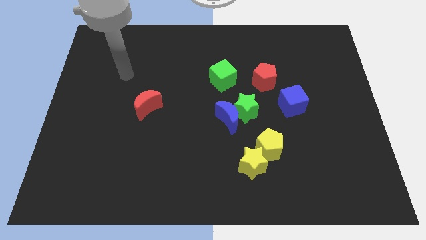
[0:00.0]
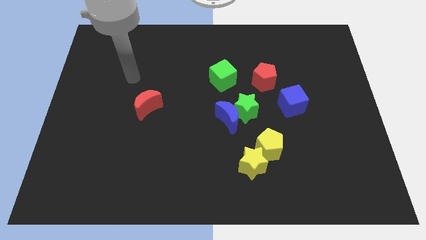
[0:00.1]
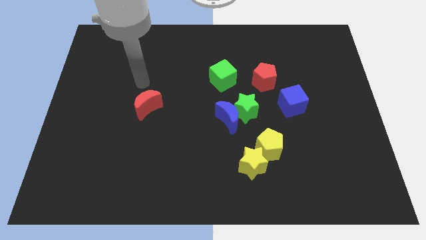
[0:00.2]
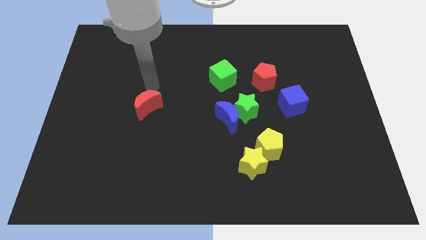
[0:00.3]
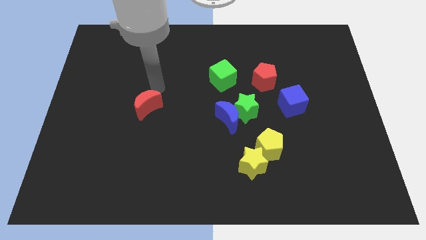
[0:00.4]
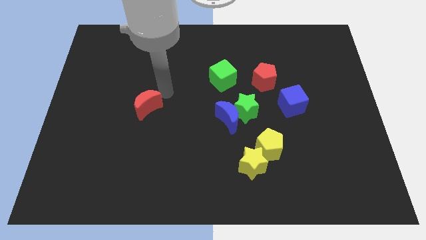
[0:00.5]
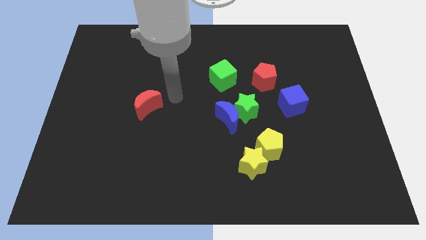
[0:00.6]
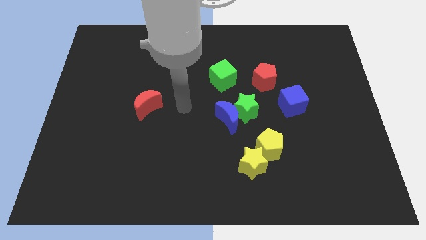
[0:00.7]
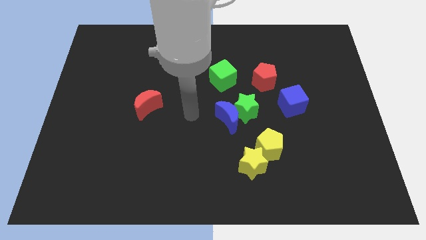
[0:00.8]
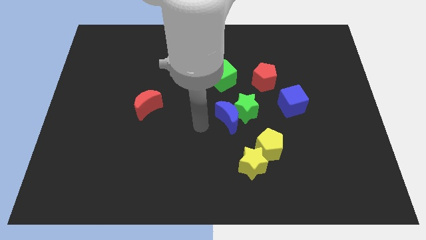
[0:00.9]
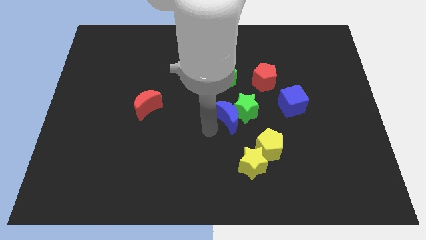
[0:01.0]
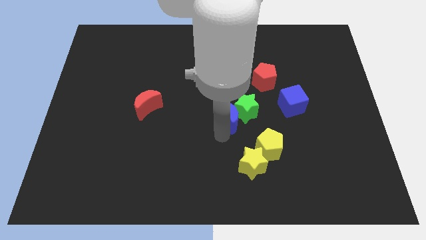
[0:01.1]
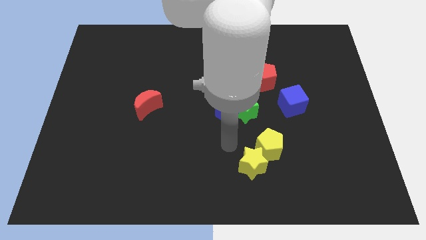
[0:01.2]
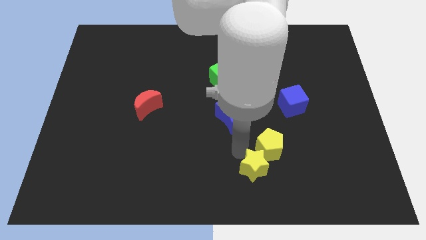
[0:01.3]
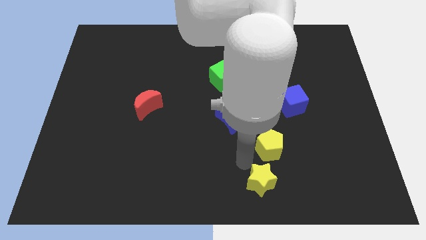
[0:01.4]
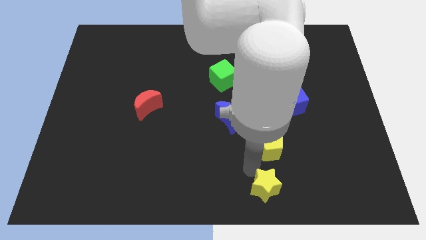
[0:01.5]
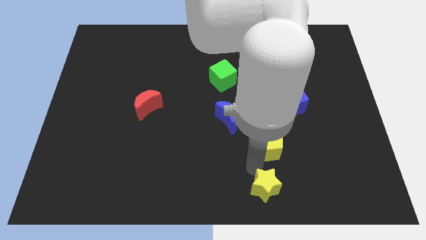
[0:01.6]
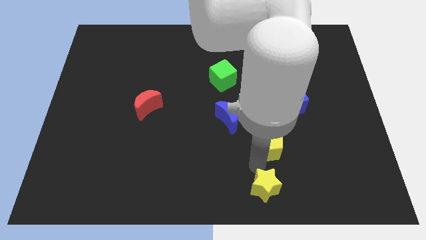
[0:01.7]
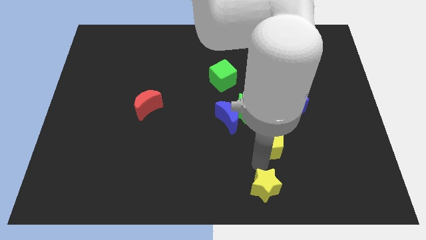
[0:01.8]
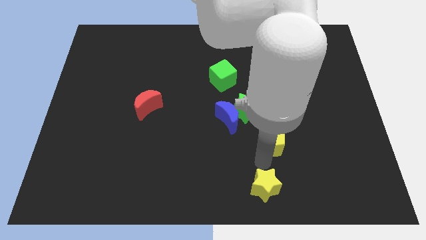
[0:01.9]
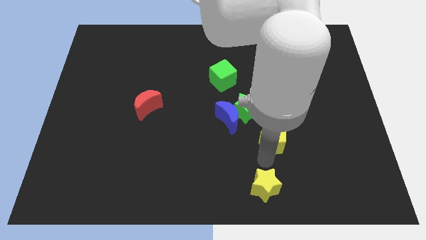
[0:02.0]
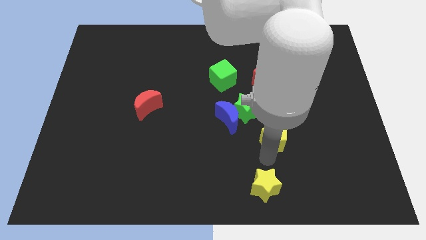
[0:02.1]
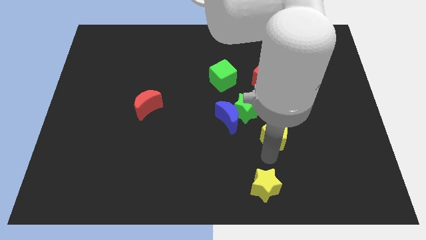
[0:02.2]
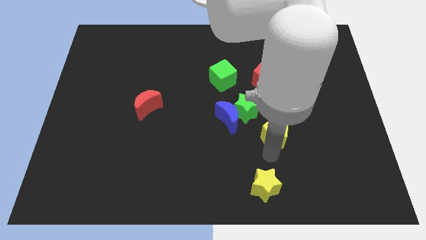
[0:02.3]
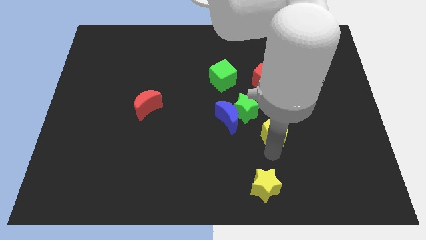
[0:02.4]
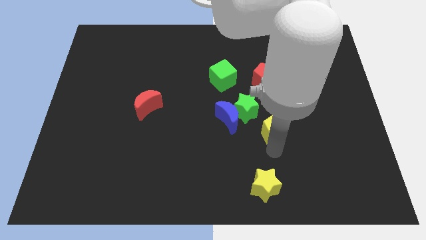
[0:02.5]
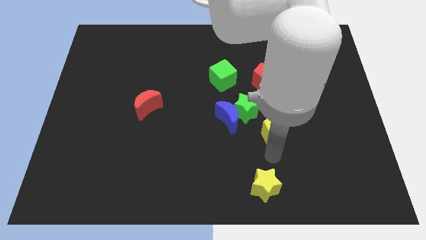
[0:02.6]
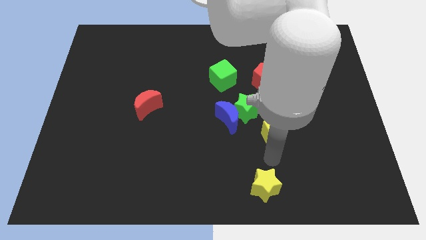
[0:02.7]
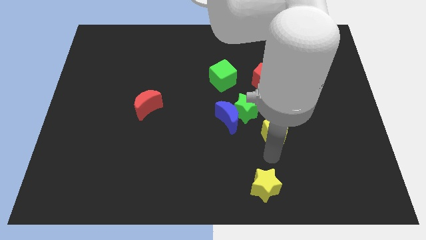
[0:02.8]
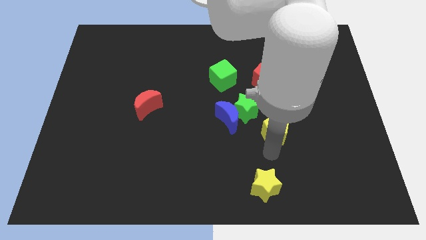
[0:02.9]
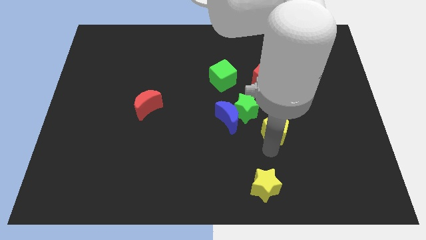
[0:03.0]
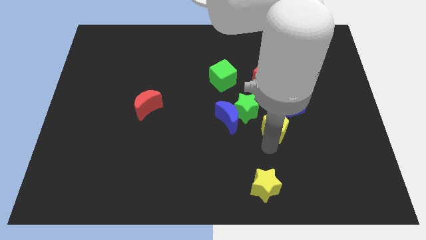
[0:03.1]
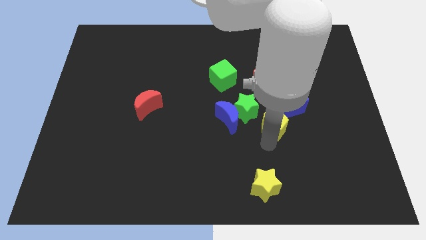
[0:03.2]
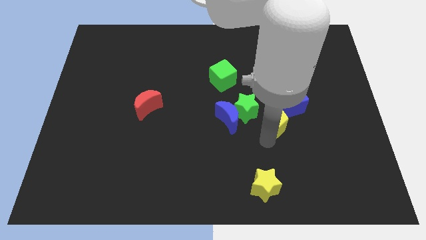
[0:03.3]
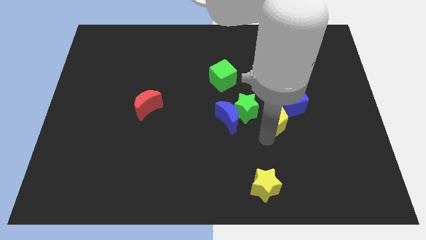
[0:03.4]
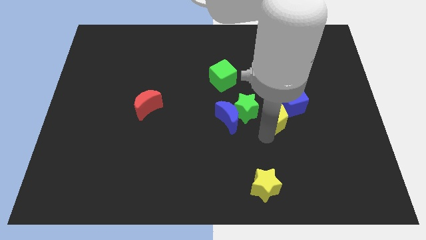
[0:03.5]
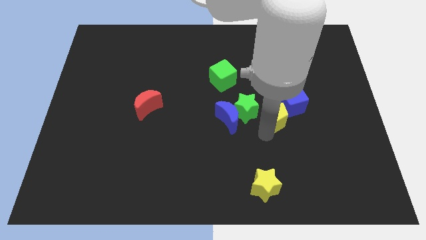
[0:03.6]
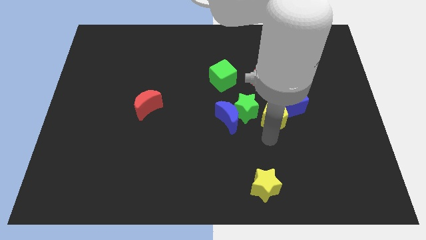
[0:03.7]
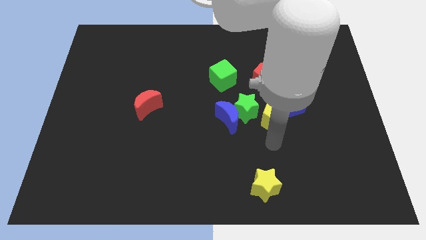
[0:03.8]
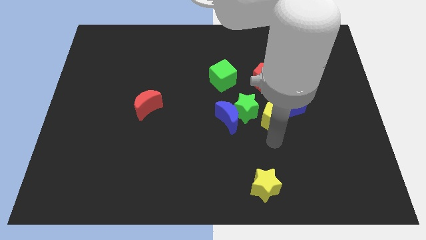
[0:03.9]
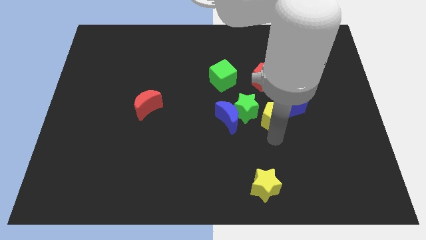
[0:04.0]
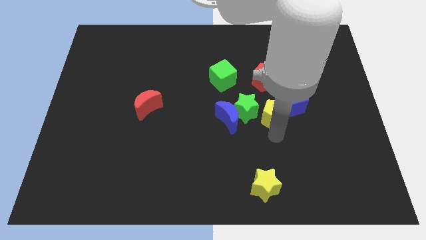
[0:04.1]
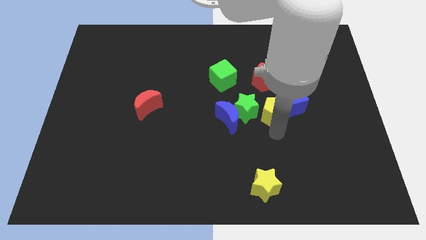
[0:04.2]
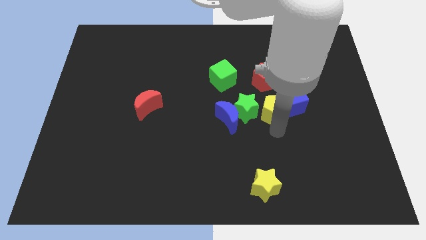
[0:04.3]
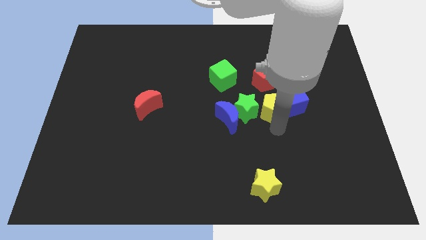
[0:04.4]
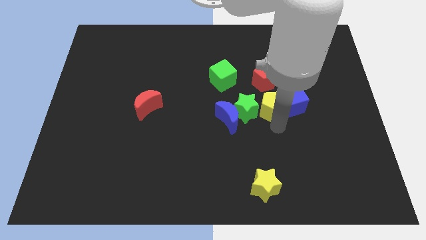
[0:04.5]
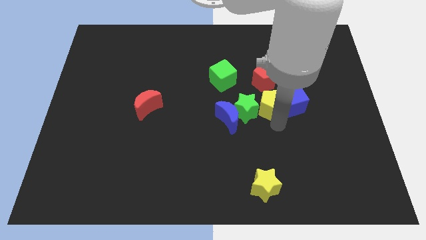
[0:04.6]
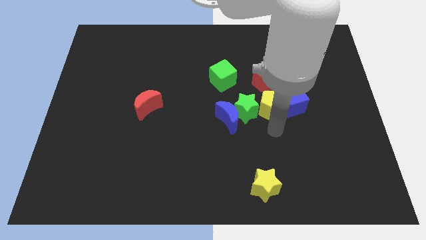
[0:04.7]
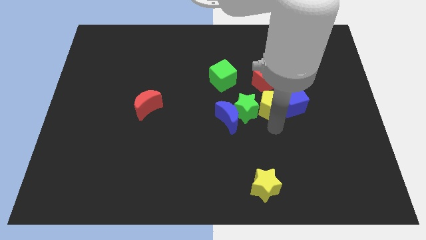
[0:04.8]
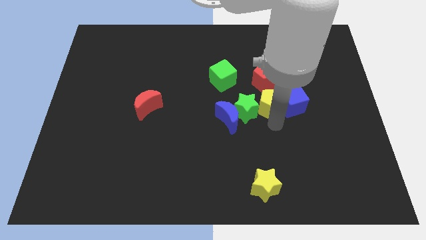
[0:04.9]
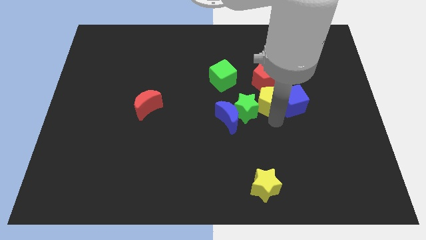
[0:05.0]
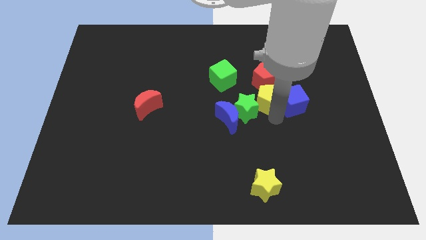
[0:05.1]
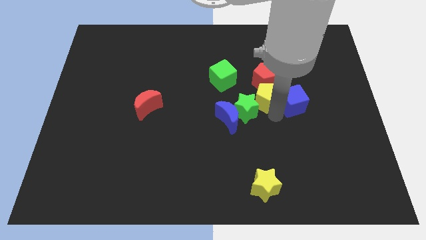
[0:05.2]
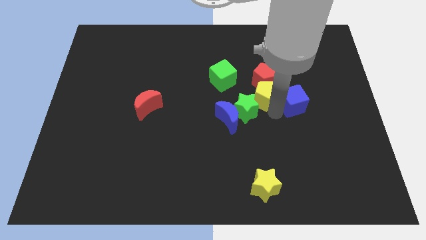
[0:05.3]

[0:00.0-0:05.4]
slide the yellow pentagon to the red pentagon

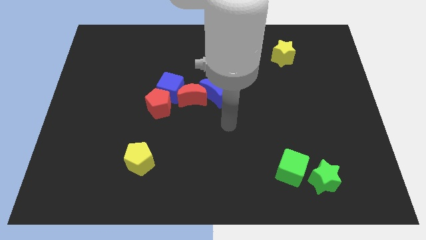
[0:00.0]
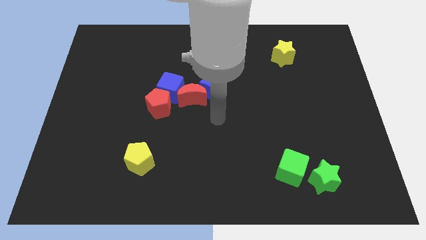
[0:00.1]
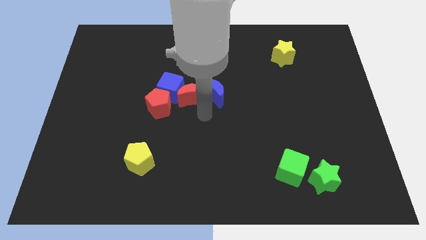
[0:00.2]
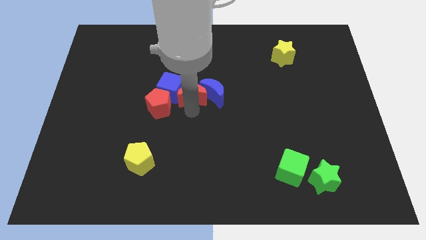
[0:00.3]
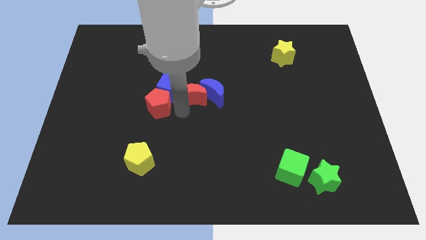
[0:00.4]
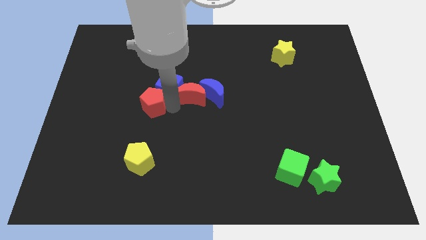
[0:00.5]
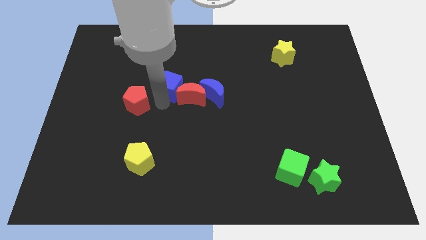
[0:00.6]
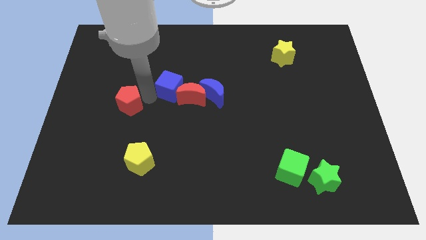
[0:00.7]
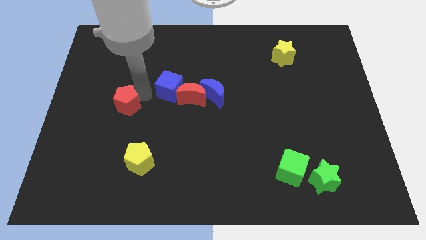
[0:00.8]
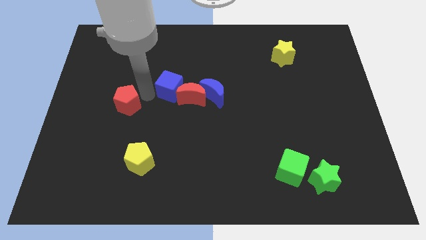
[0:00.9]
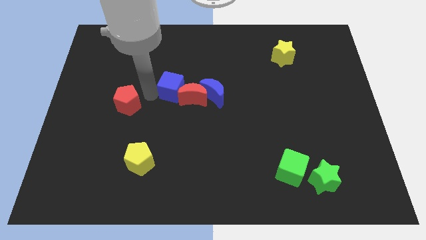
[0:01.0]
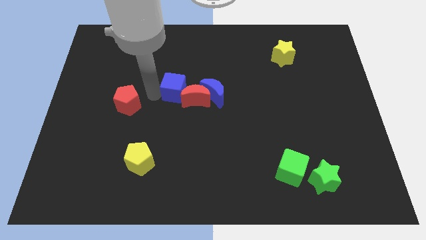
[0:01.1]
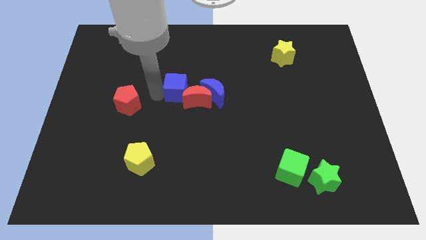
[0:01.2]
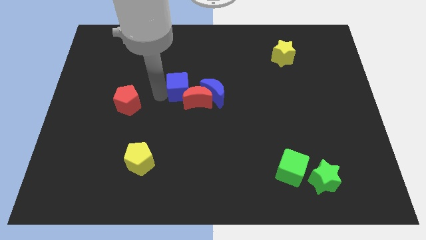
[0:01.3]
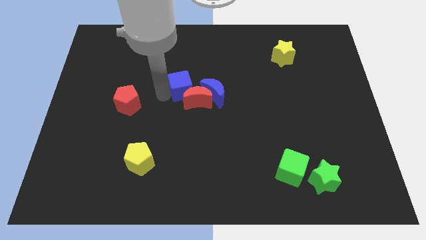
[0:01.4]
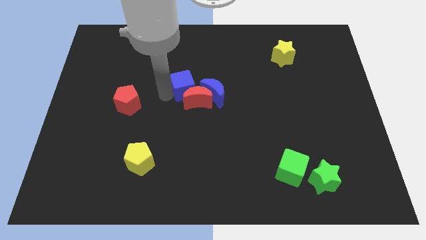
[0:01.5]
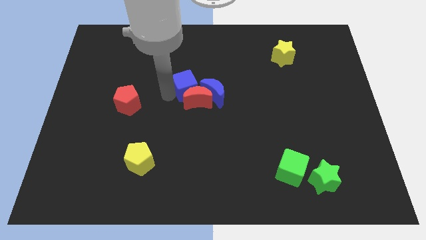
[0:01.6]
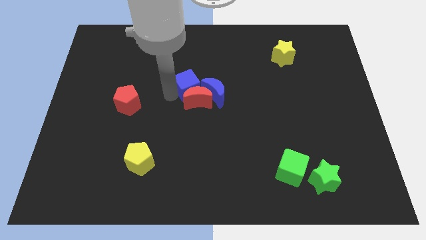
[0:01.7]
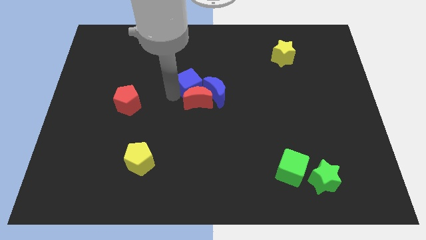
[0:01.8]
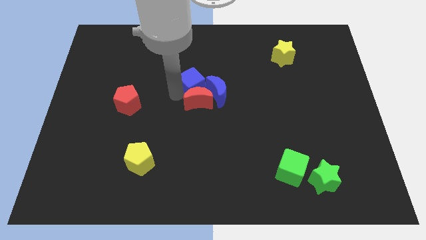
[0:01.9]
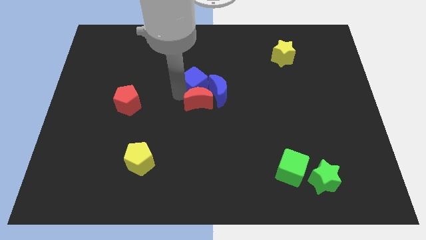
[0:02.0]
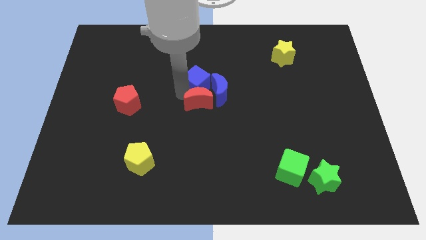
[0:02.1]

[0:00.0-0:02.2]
slide the blue cube close to the blue moon
